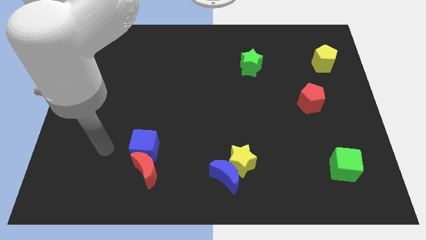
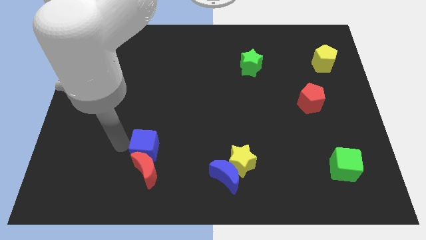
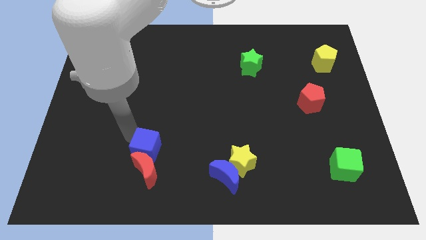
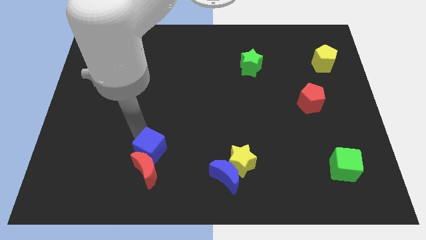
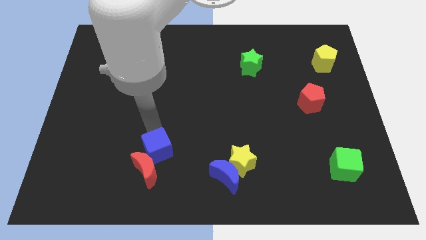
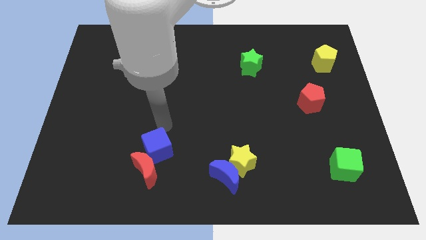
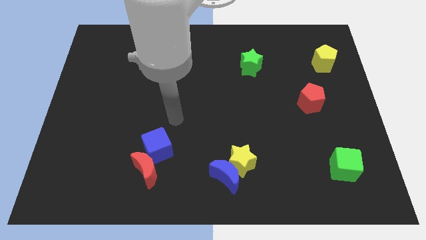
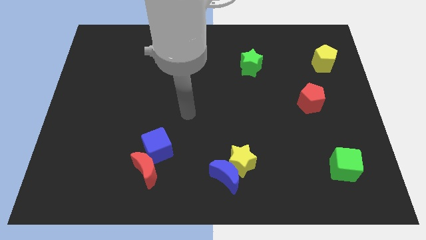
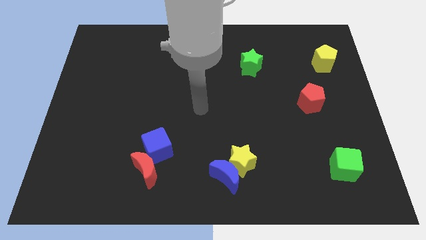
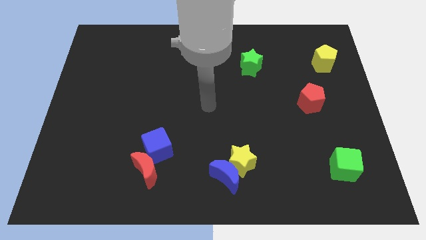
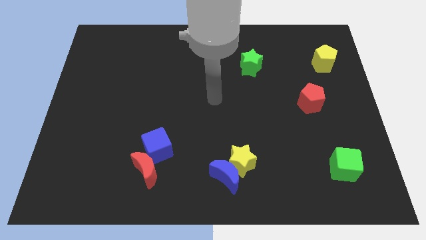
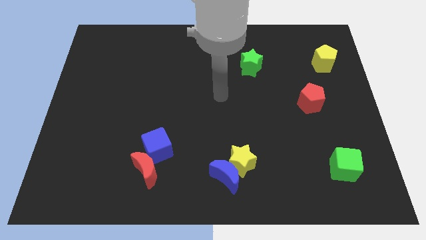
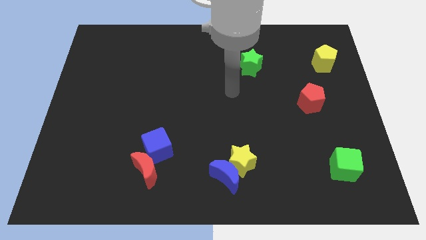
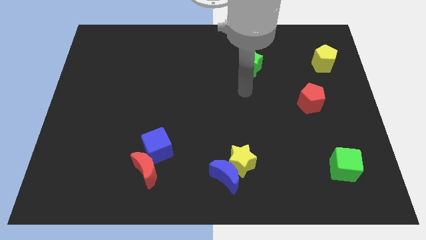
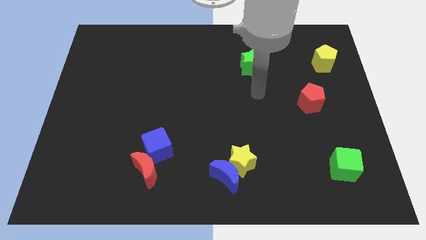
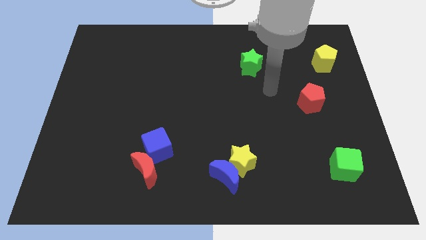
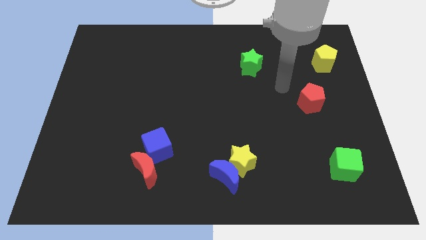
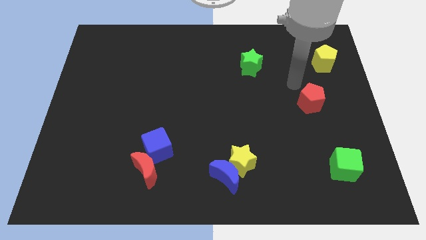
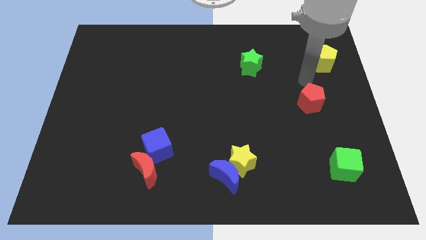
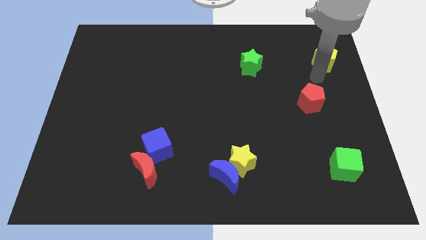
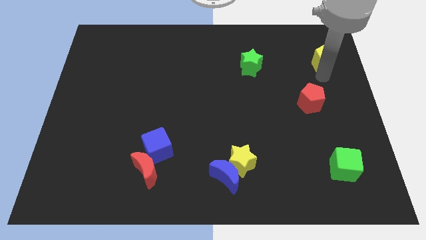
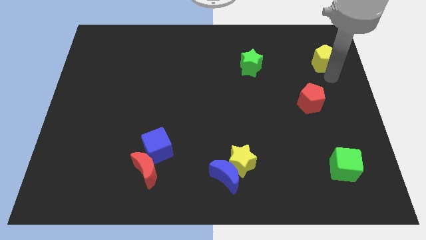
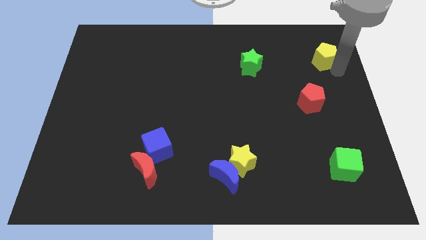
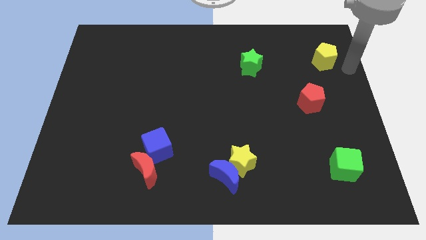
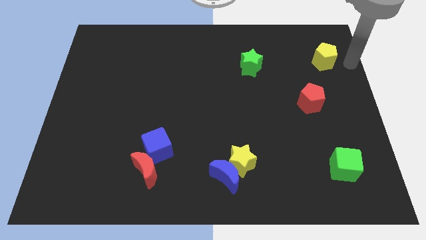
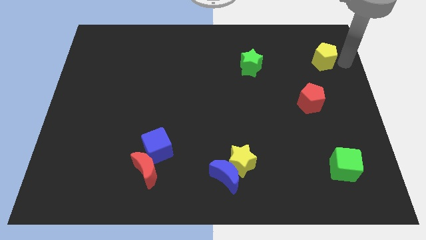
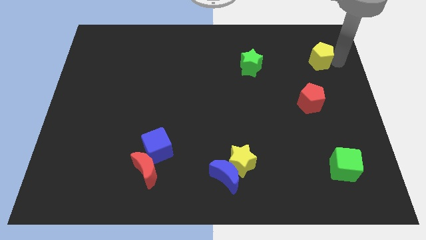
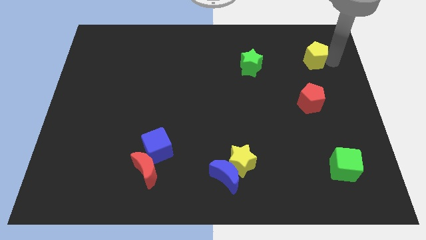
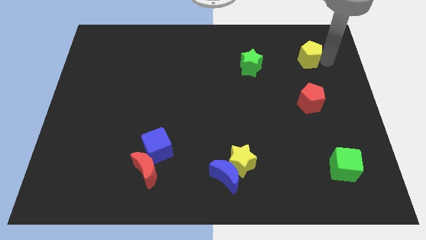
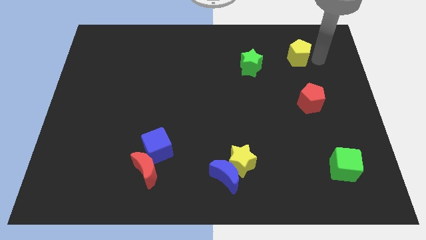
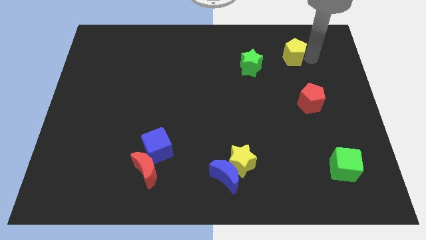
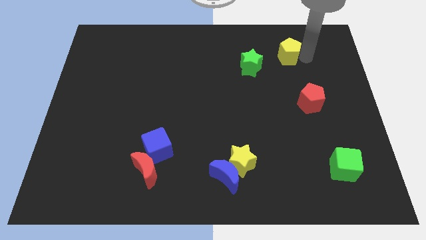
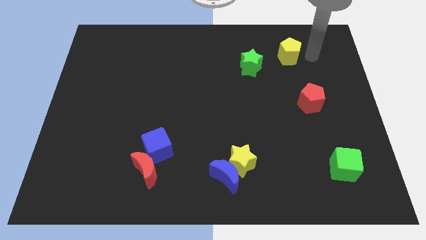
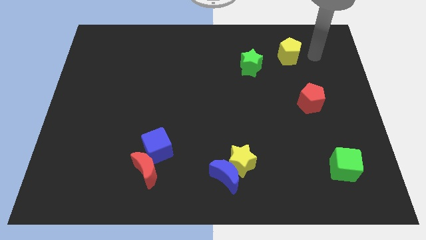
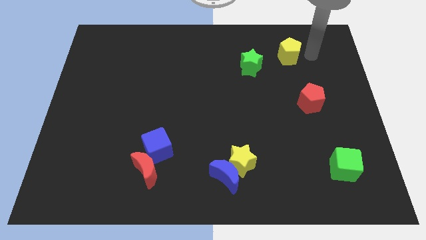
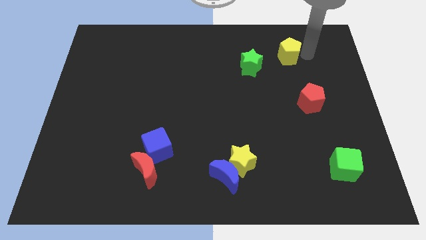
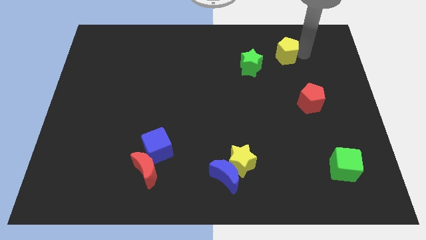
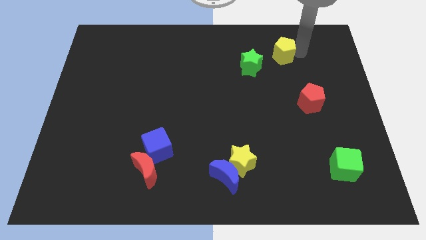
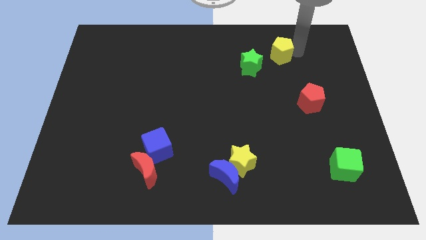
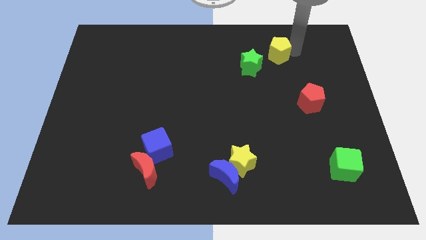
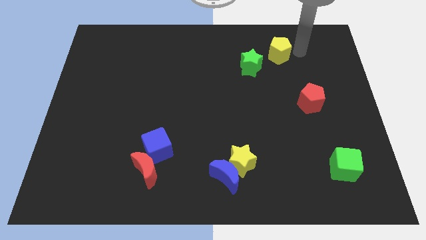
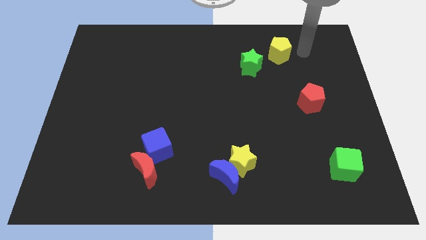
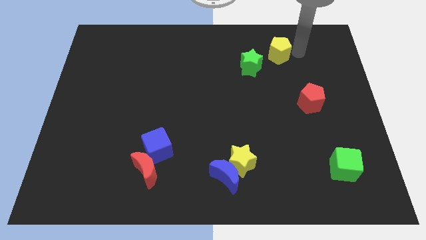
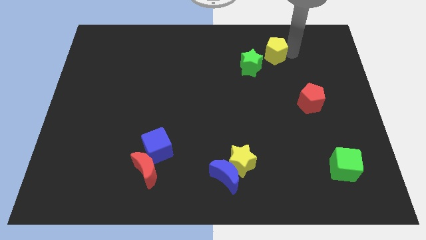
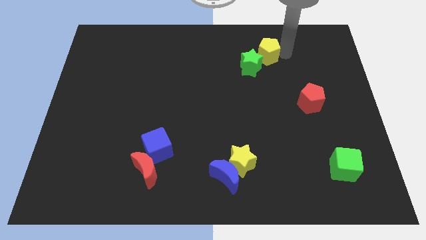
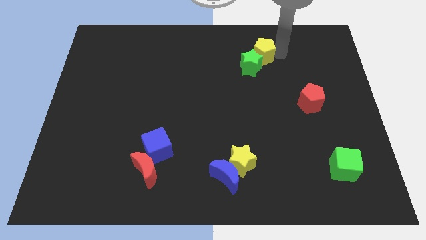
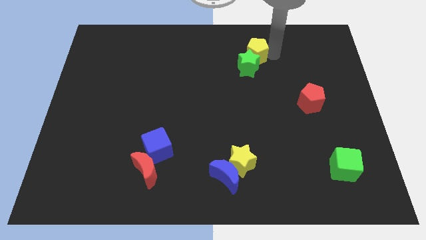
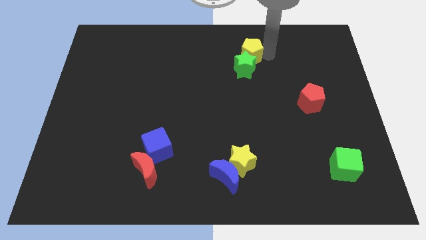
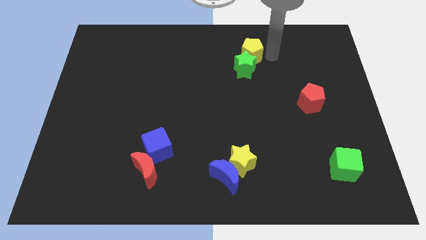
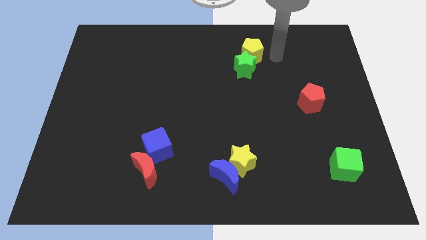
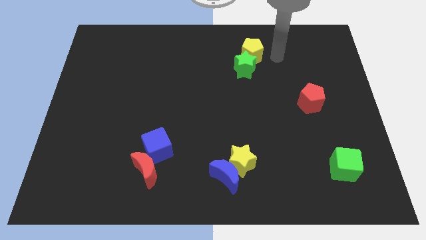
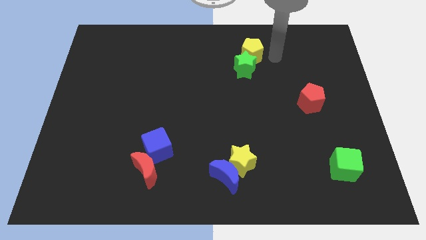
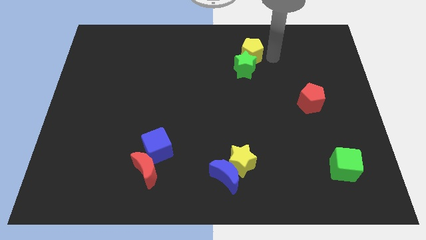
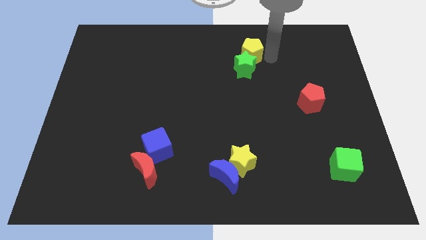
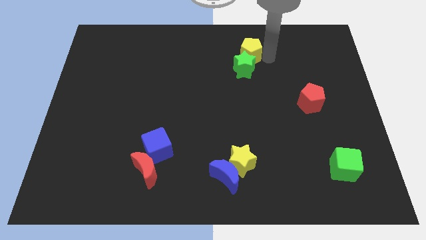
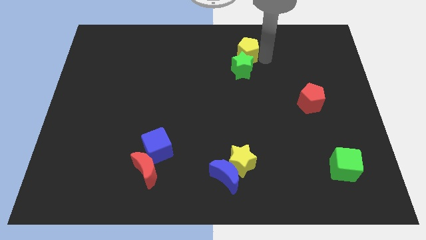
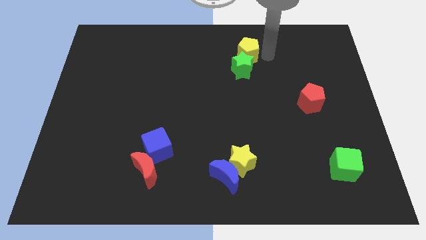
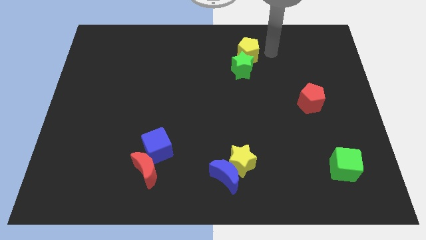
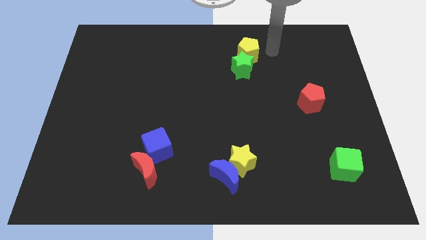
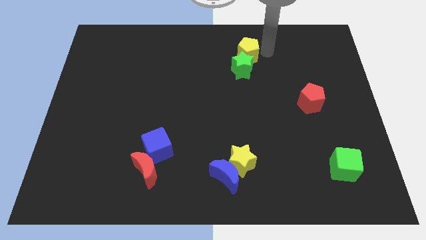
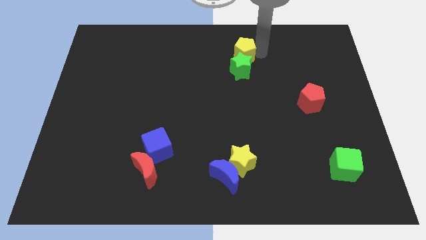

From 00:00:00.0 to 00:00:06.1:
move the yellow pentagon left

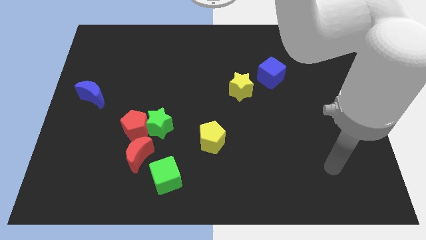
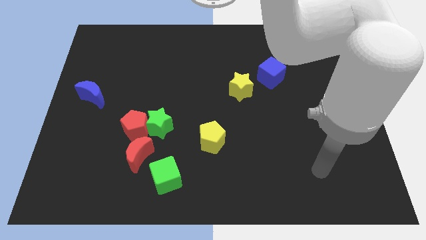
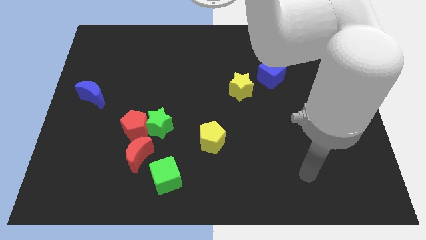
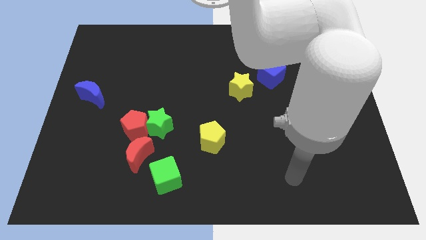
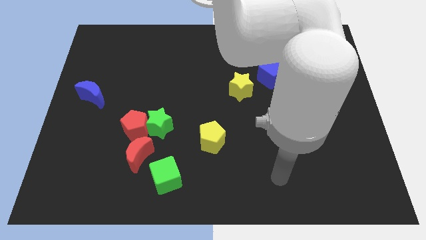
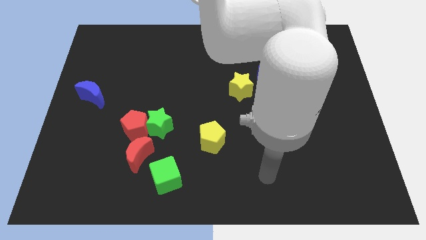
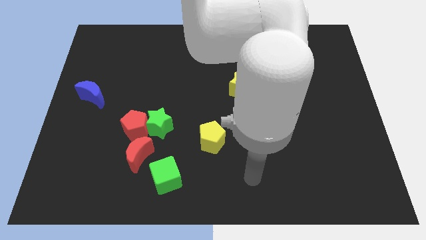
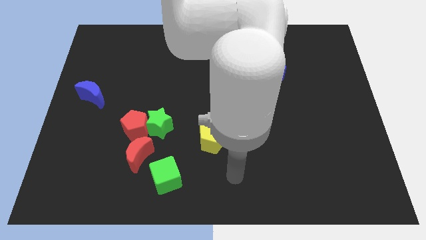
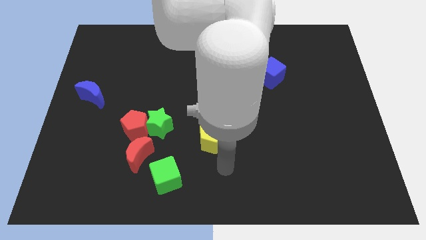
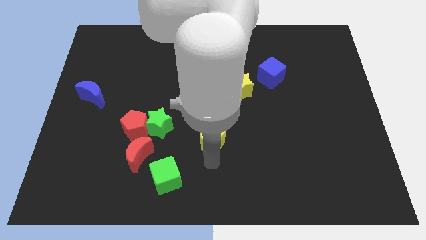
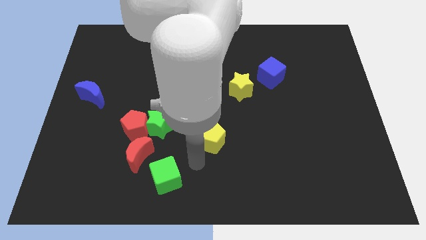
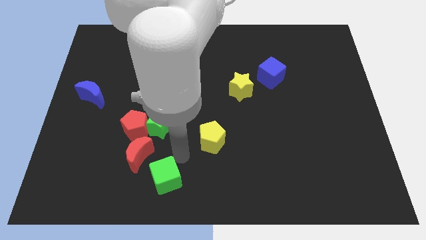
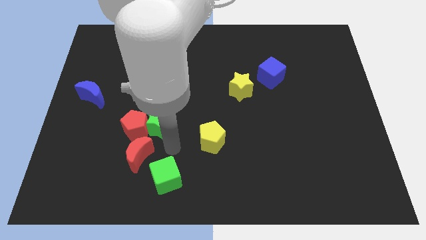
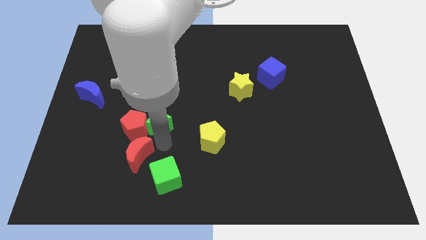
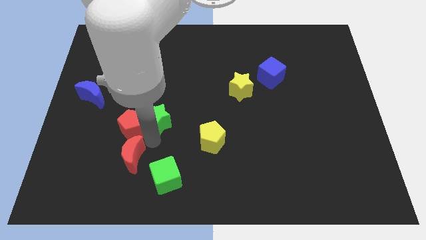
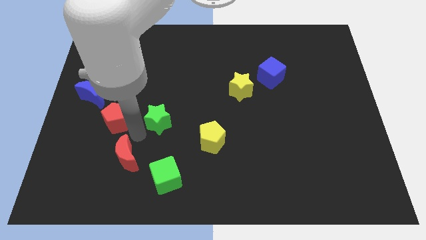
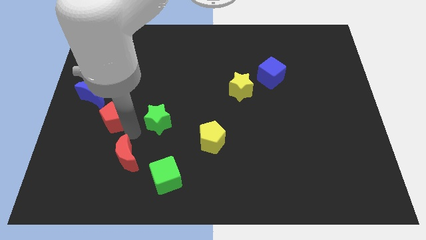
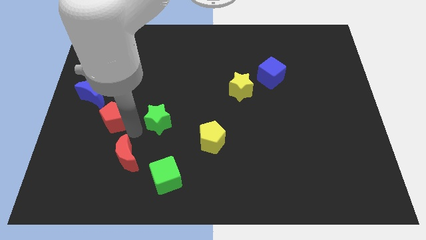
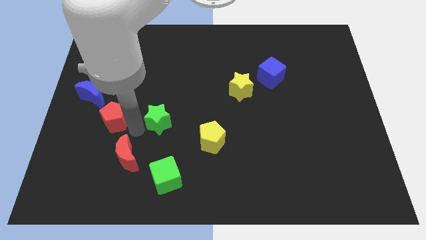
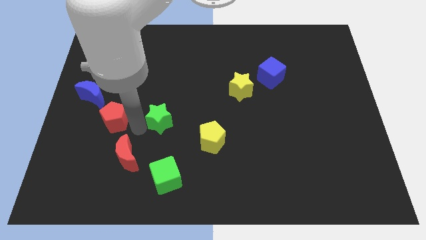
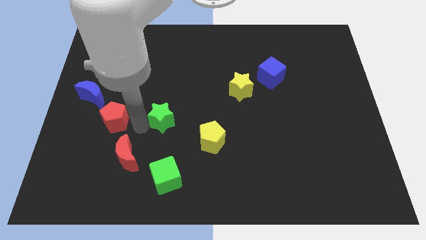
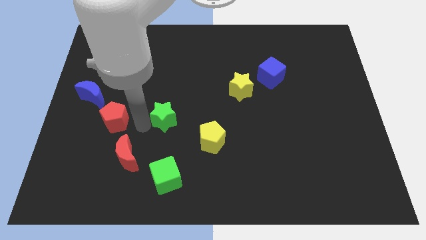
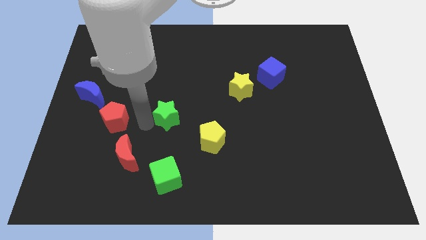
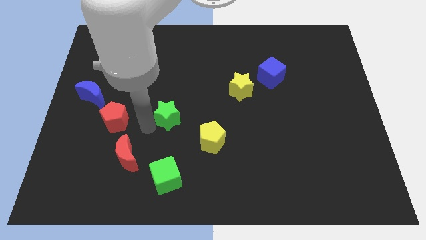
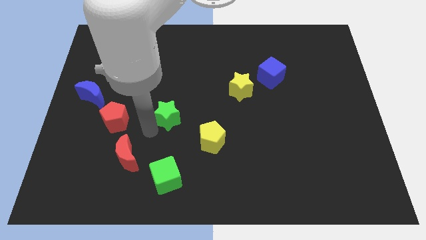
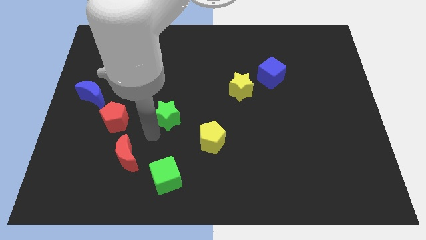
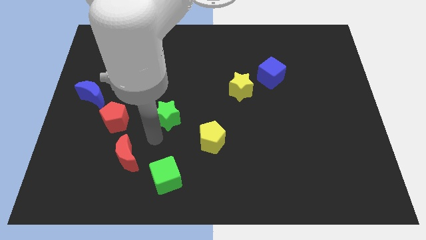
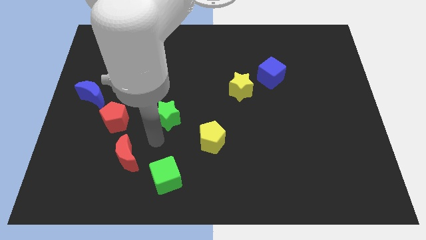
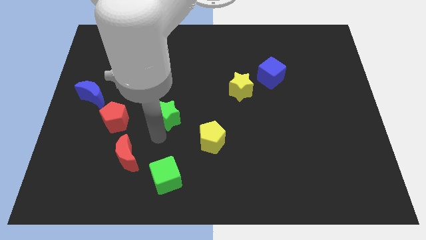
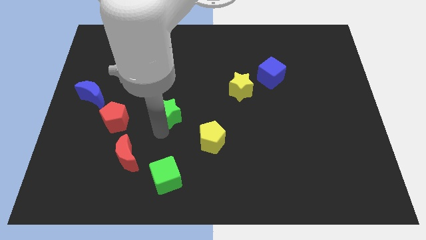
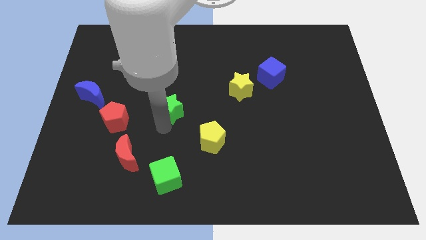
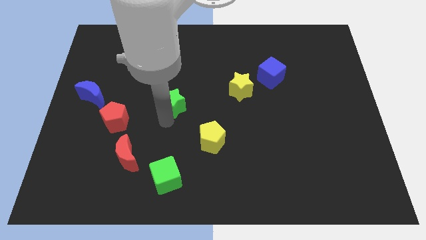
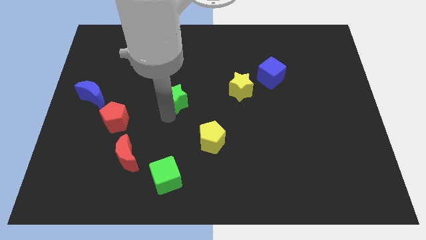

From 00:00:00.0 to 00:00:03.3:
push the green star diagonally up and to the right a little bit
